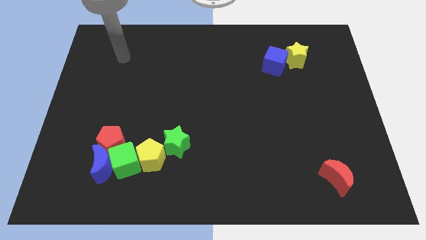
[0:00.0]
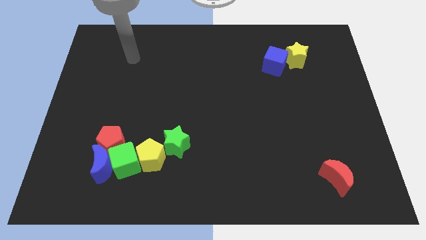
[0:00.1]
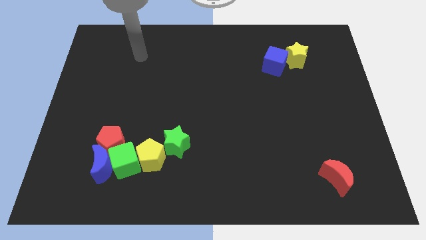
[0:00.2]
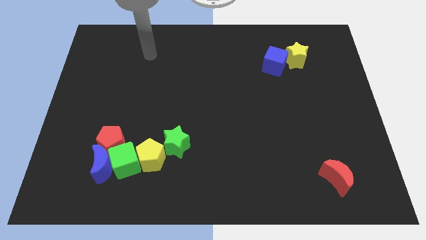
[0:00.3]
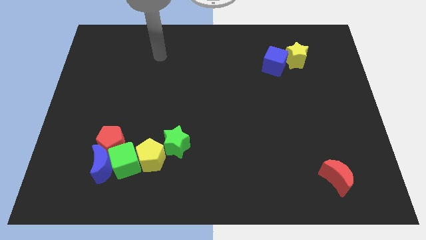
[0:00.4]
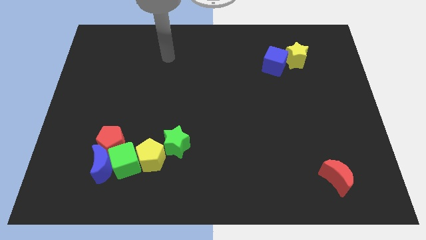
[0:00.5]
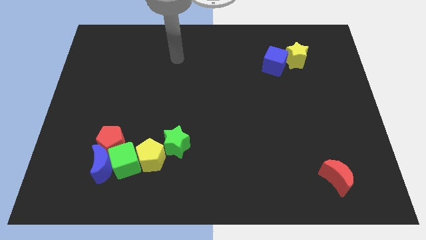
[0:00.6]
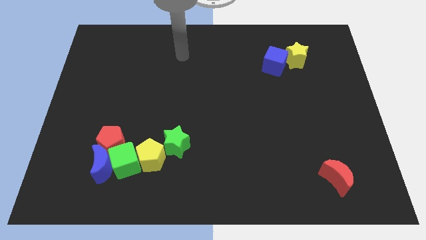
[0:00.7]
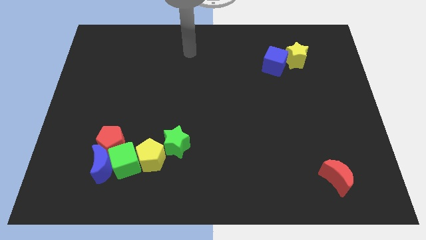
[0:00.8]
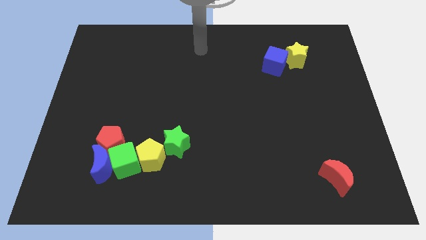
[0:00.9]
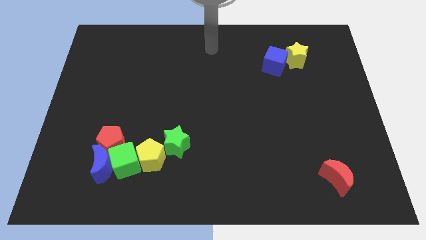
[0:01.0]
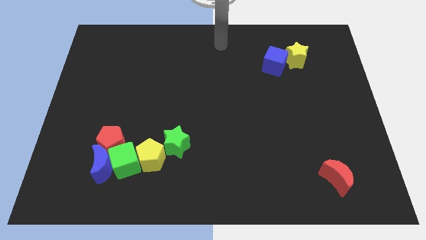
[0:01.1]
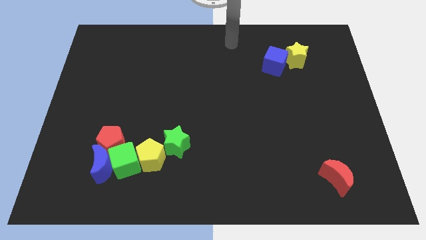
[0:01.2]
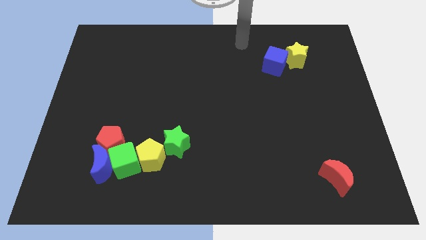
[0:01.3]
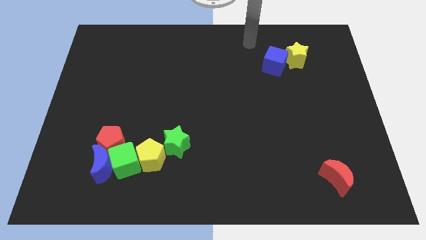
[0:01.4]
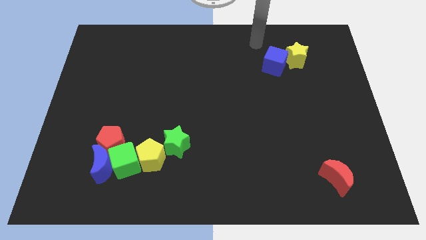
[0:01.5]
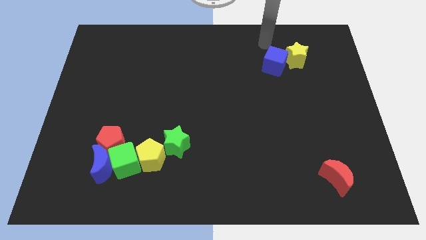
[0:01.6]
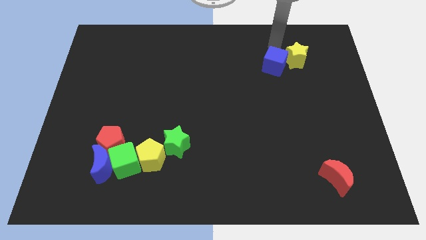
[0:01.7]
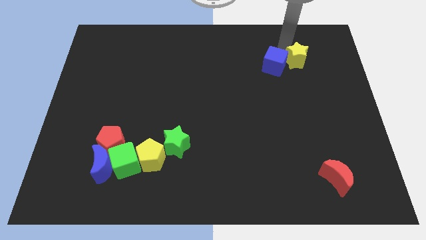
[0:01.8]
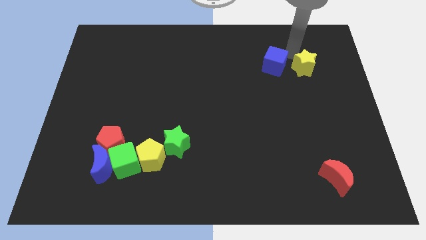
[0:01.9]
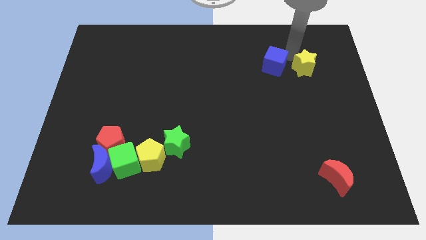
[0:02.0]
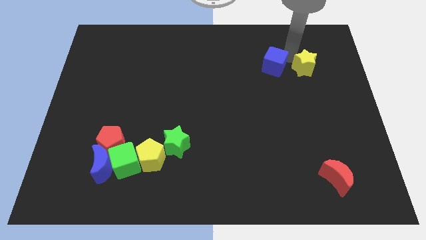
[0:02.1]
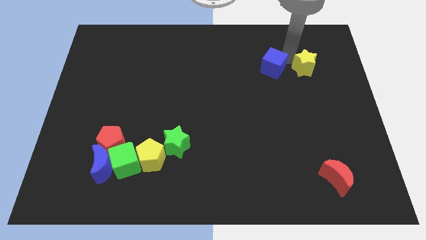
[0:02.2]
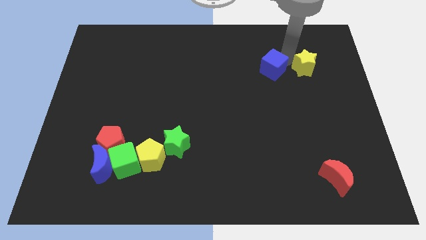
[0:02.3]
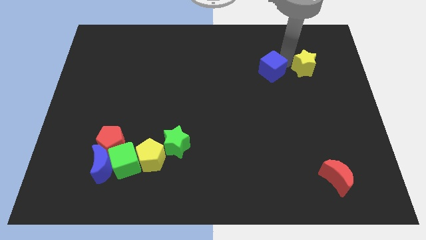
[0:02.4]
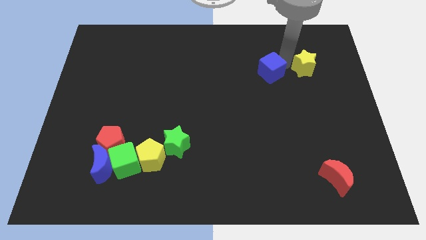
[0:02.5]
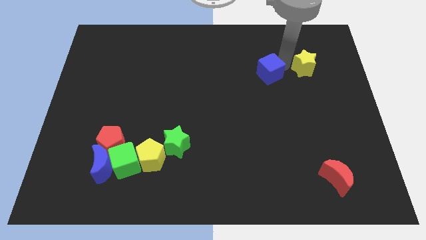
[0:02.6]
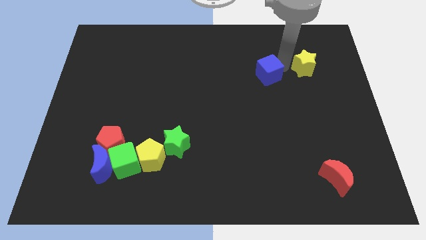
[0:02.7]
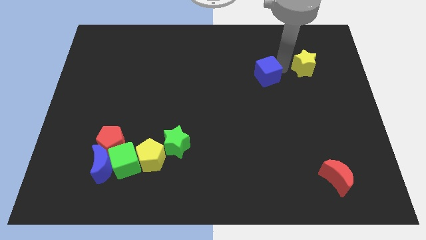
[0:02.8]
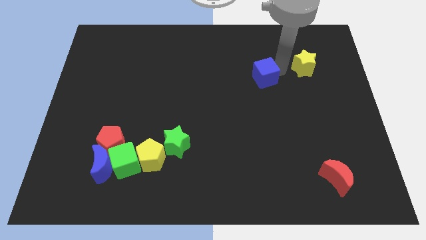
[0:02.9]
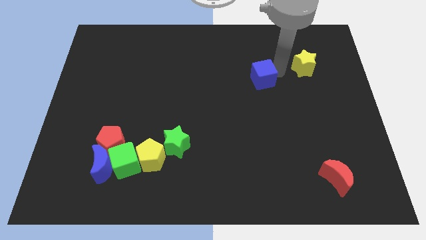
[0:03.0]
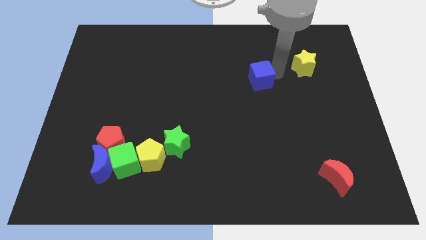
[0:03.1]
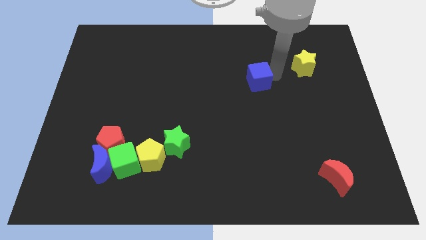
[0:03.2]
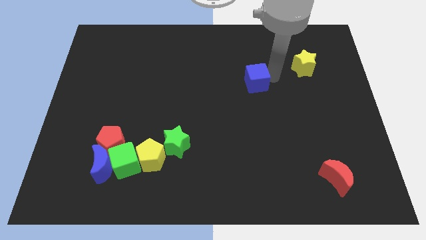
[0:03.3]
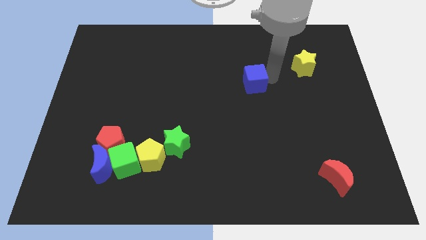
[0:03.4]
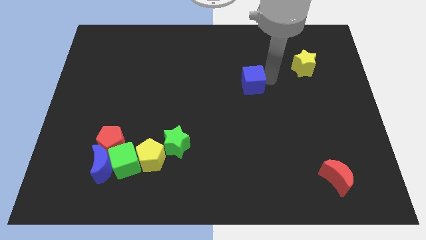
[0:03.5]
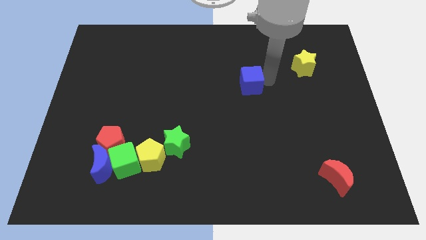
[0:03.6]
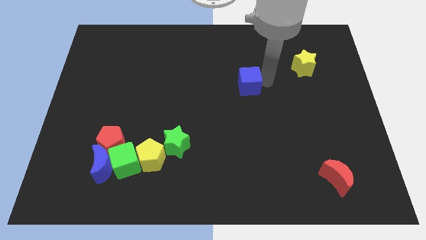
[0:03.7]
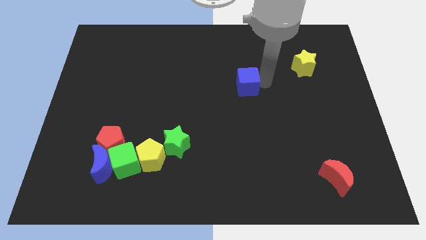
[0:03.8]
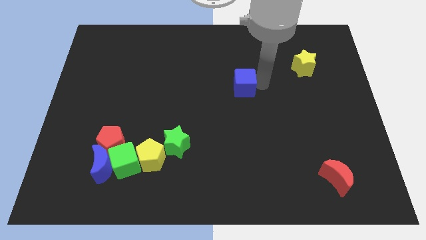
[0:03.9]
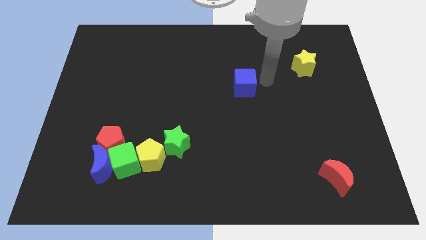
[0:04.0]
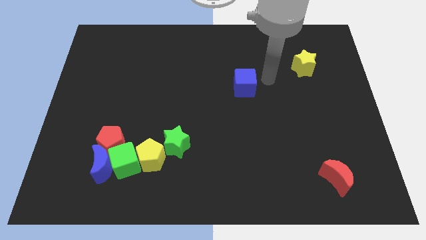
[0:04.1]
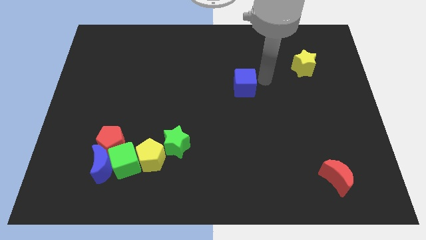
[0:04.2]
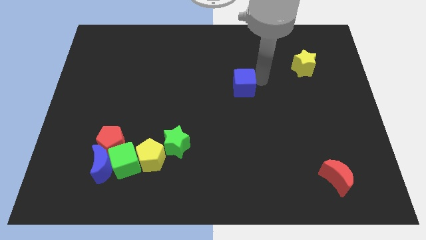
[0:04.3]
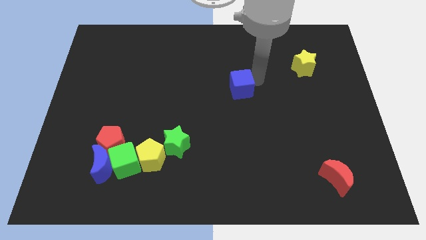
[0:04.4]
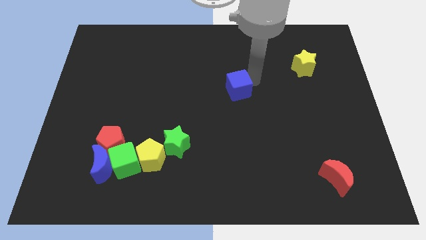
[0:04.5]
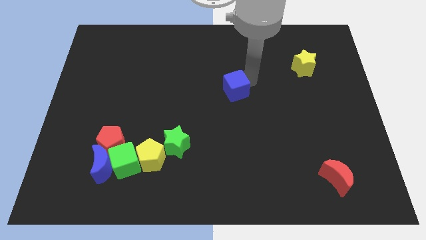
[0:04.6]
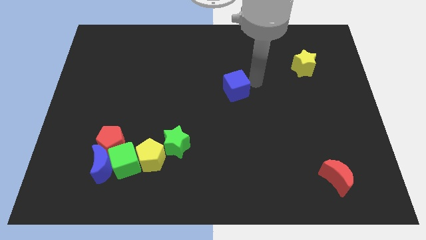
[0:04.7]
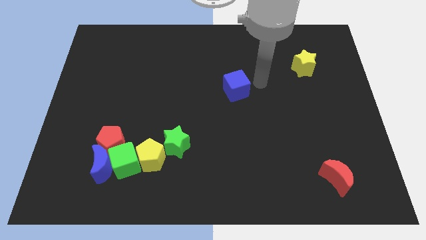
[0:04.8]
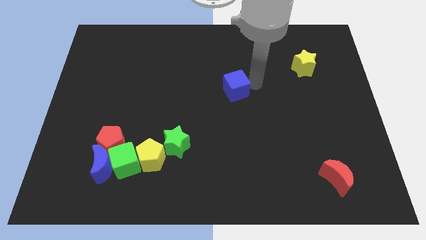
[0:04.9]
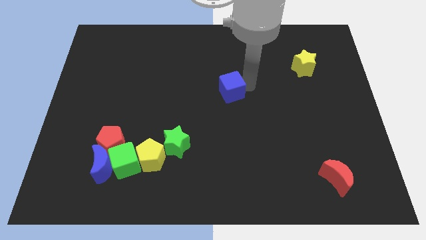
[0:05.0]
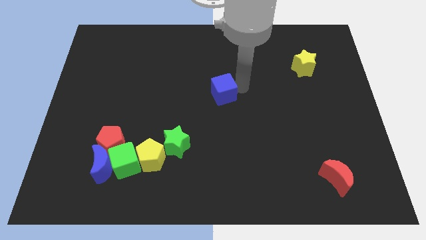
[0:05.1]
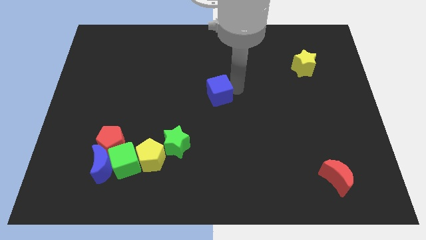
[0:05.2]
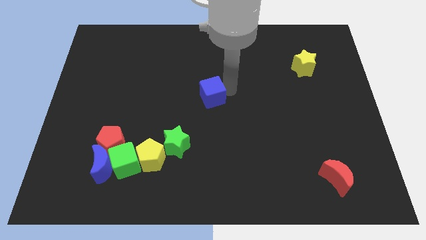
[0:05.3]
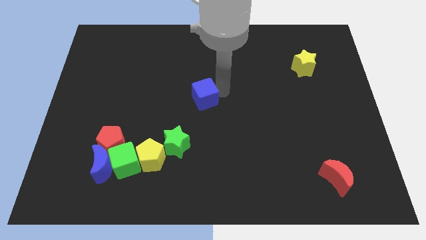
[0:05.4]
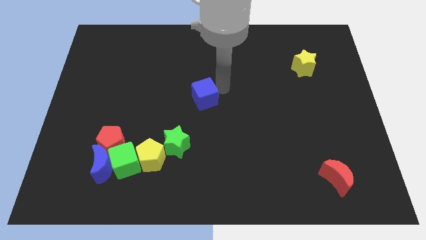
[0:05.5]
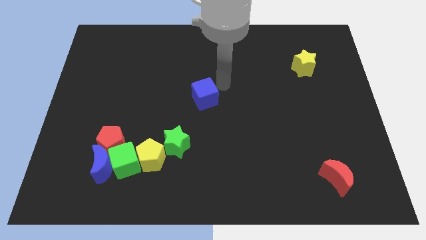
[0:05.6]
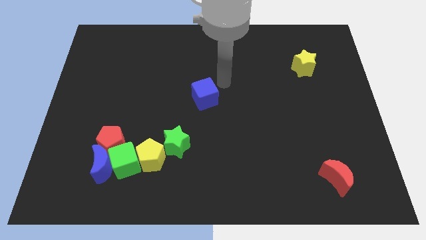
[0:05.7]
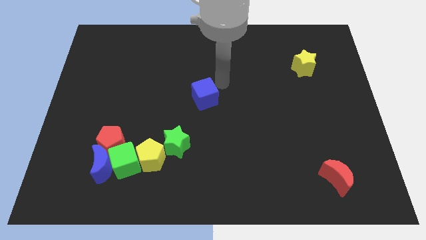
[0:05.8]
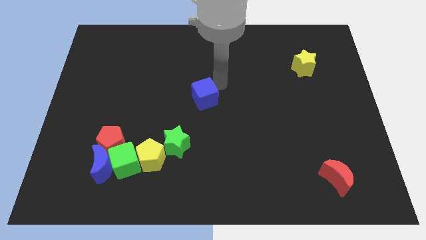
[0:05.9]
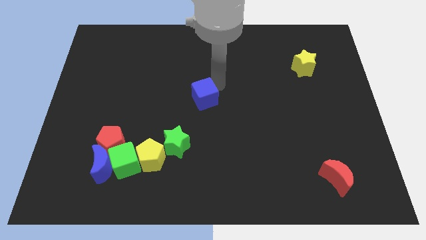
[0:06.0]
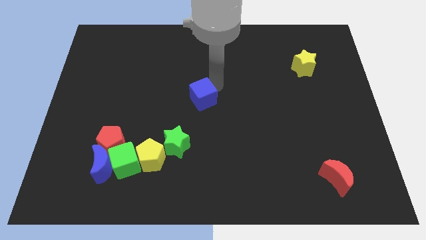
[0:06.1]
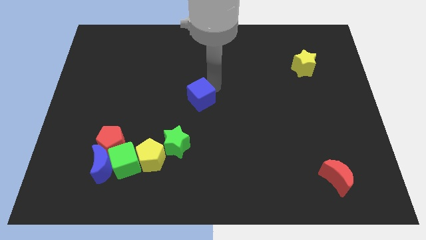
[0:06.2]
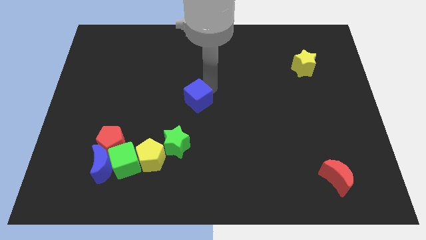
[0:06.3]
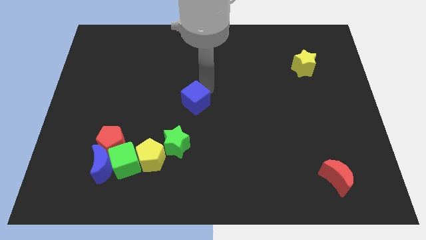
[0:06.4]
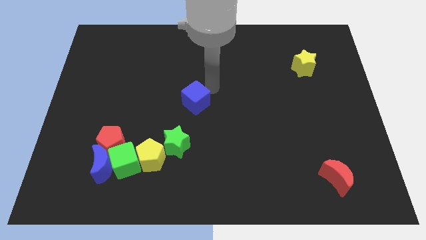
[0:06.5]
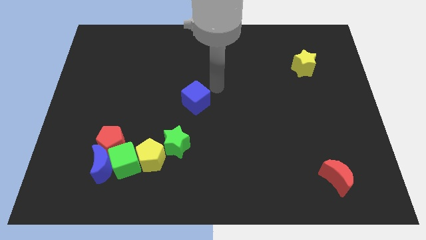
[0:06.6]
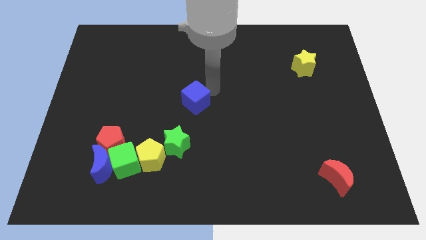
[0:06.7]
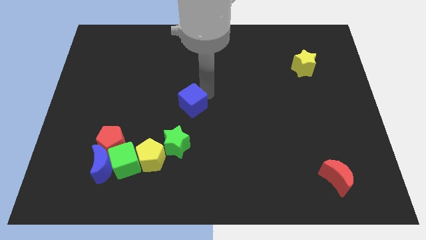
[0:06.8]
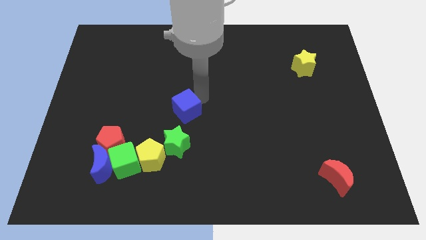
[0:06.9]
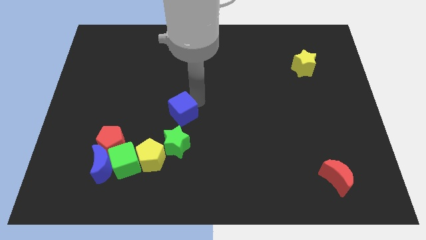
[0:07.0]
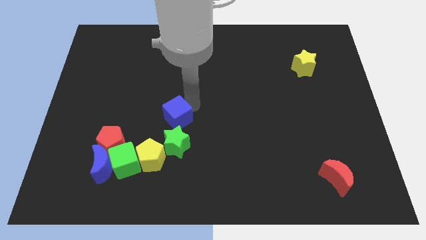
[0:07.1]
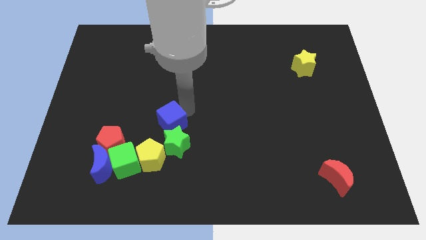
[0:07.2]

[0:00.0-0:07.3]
push the blue cube diagonally up and to the left of the green star
